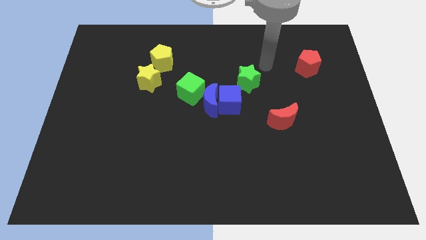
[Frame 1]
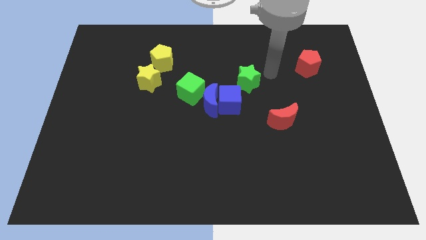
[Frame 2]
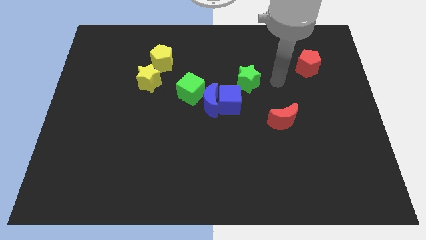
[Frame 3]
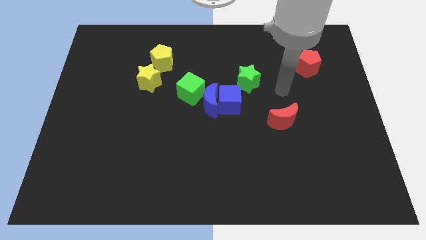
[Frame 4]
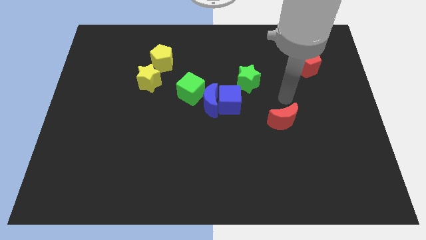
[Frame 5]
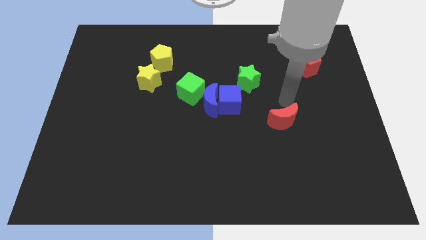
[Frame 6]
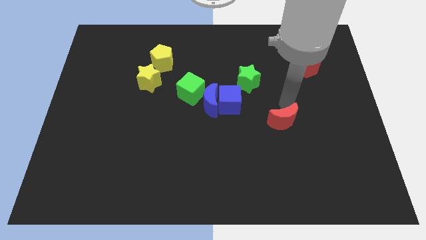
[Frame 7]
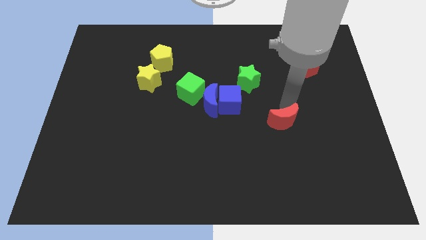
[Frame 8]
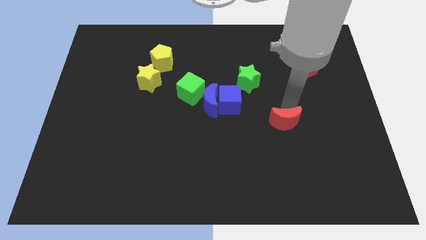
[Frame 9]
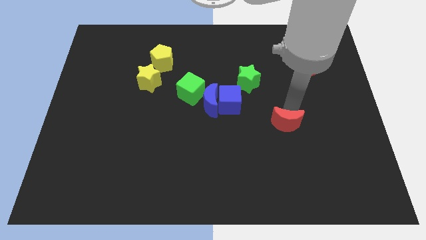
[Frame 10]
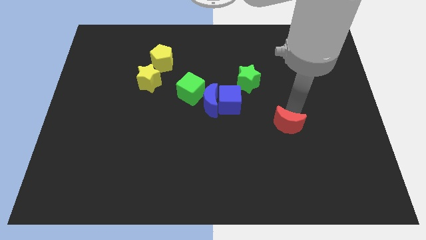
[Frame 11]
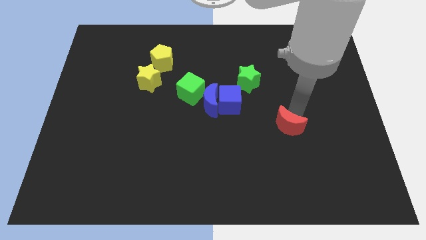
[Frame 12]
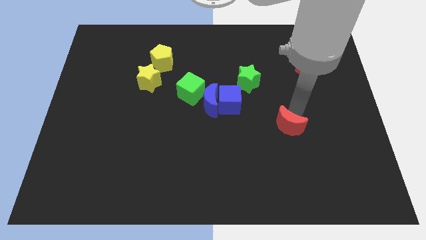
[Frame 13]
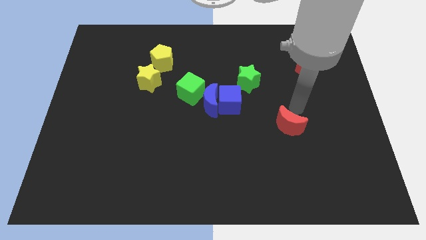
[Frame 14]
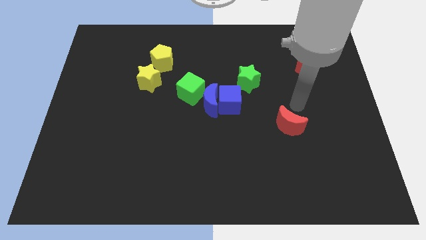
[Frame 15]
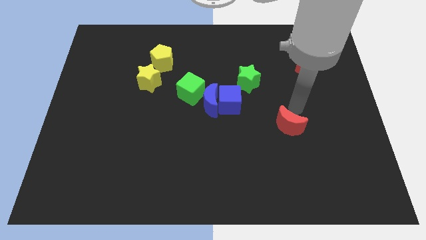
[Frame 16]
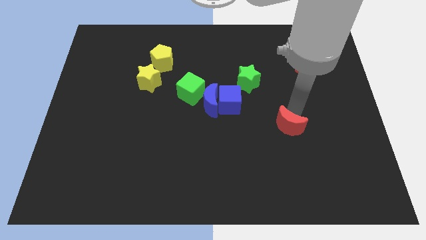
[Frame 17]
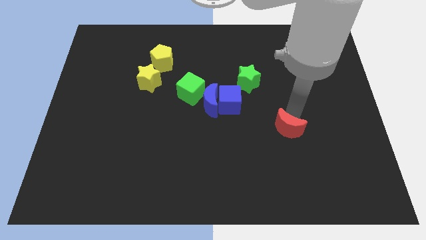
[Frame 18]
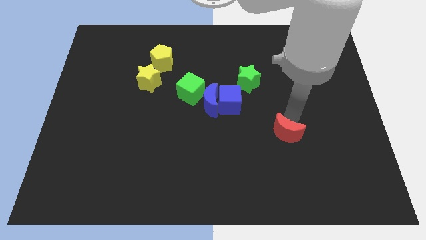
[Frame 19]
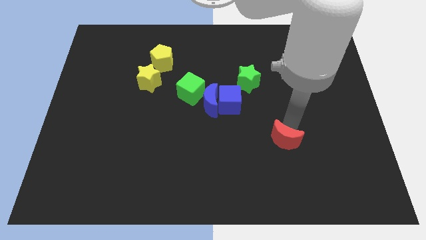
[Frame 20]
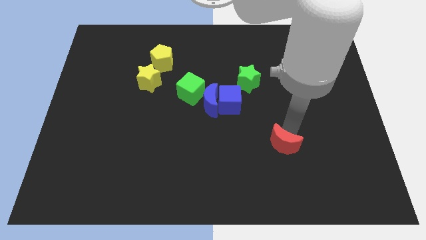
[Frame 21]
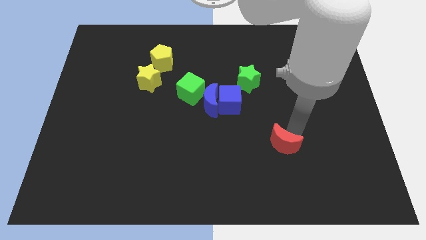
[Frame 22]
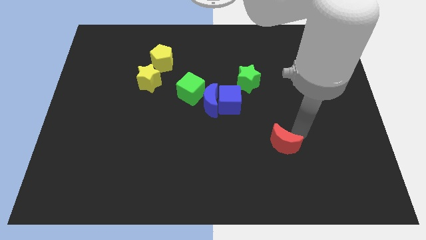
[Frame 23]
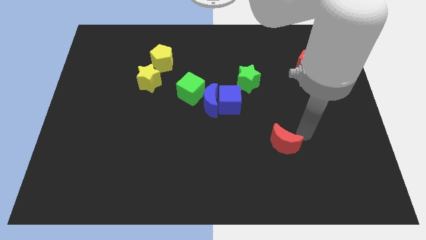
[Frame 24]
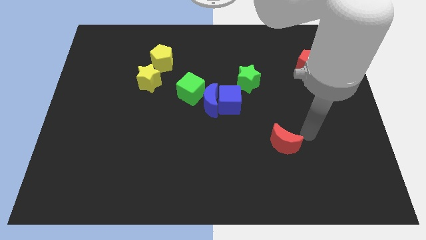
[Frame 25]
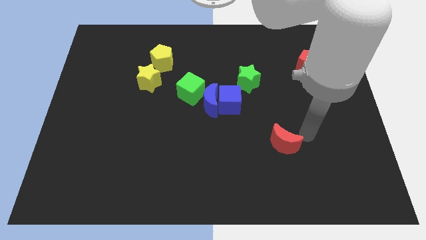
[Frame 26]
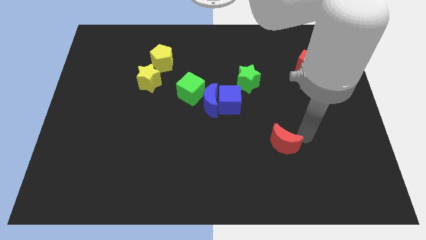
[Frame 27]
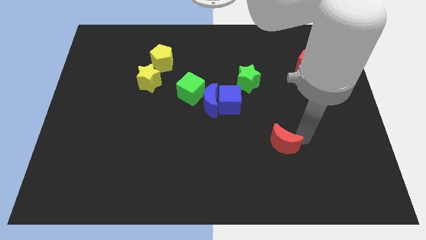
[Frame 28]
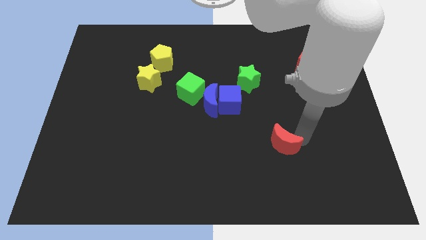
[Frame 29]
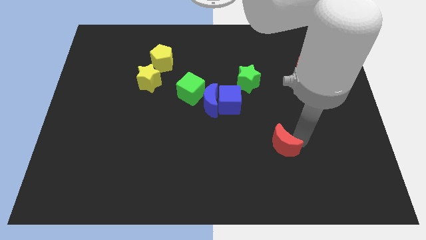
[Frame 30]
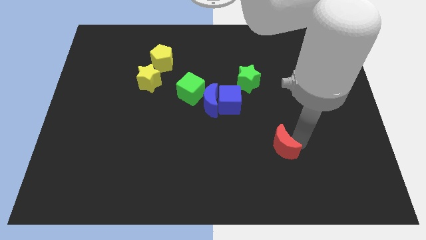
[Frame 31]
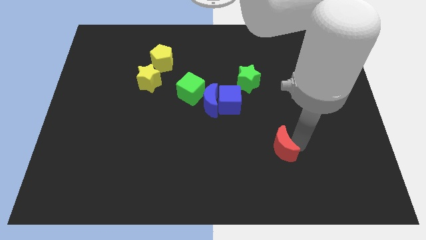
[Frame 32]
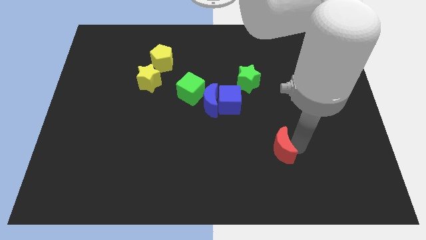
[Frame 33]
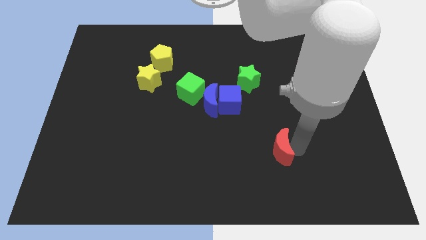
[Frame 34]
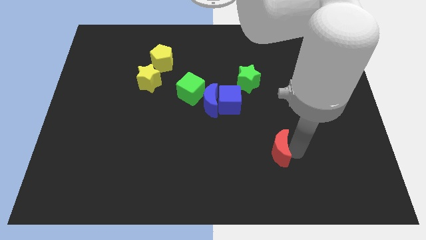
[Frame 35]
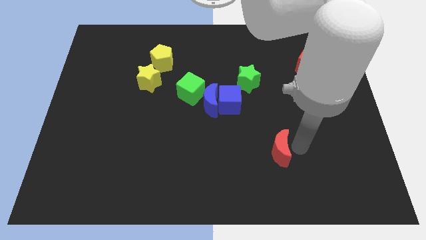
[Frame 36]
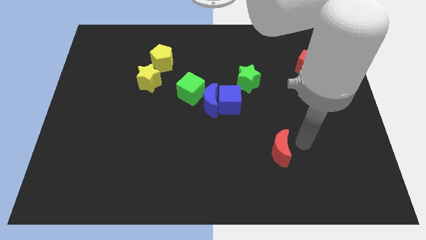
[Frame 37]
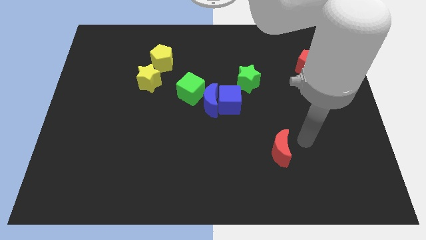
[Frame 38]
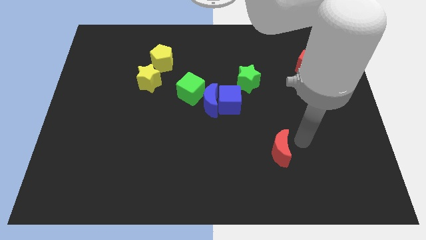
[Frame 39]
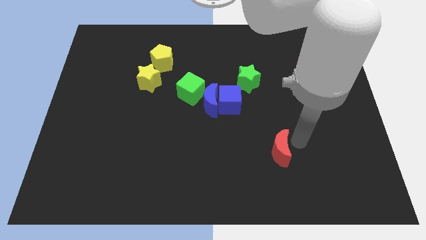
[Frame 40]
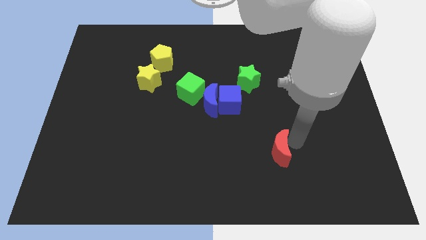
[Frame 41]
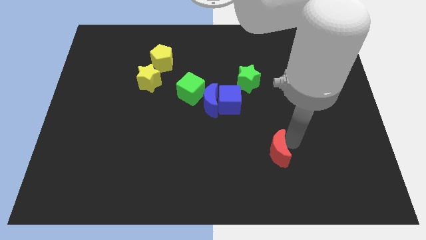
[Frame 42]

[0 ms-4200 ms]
push the red moon down and to the left slightly

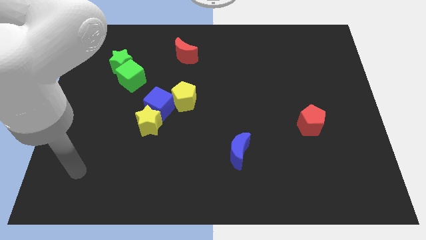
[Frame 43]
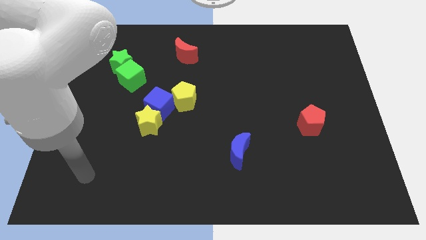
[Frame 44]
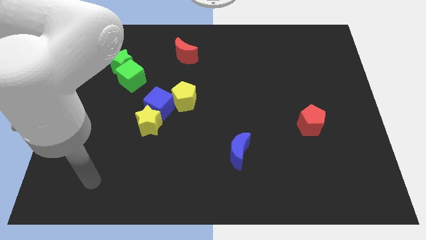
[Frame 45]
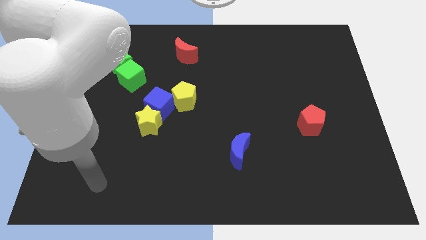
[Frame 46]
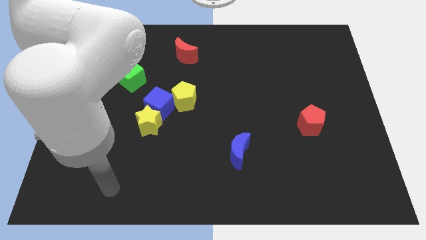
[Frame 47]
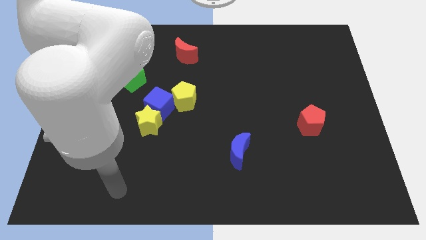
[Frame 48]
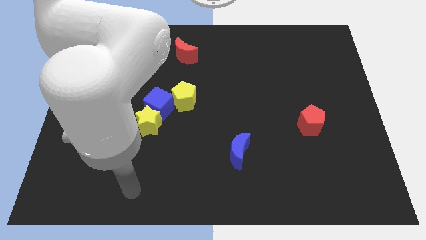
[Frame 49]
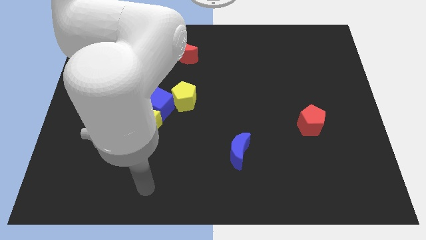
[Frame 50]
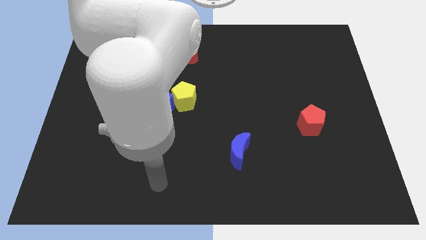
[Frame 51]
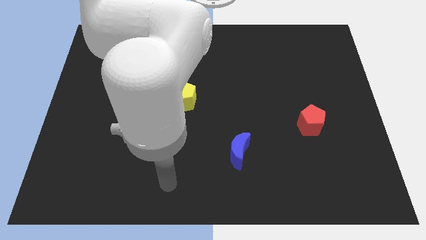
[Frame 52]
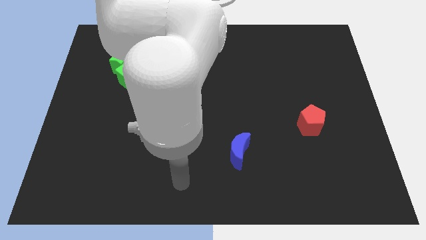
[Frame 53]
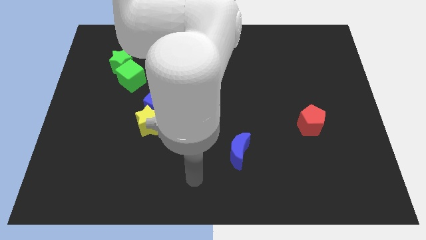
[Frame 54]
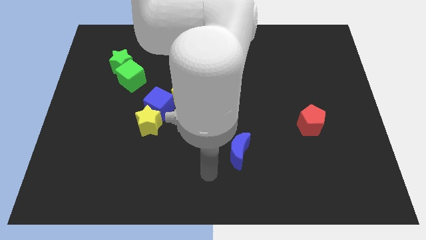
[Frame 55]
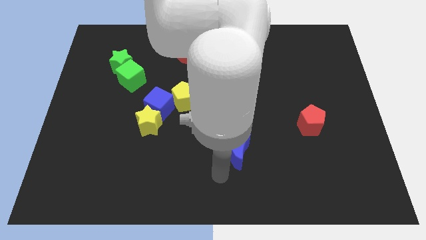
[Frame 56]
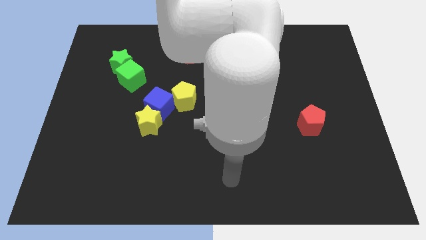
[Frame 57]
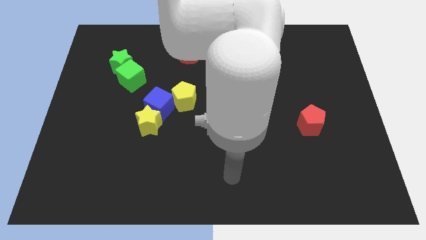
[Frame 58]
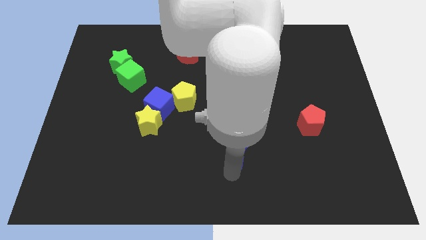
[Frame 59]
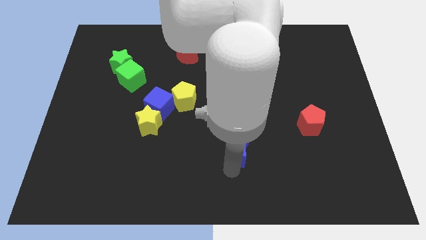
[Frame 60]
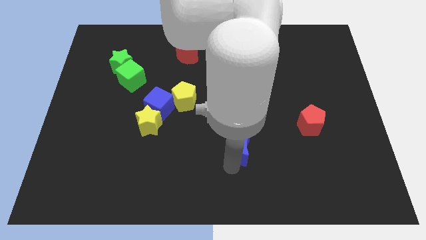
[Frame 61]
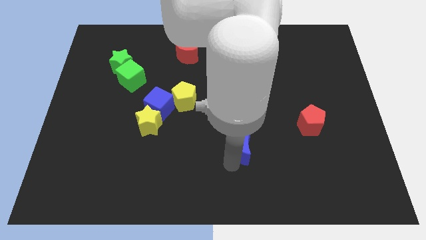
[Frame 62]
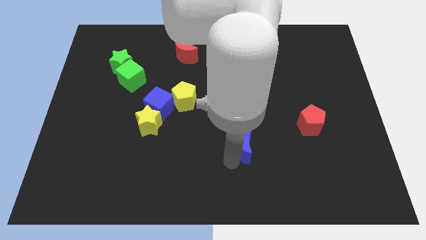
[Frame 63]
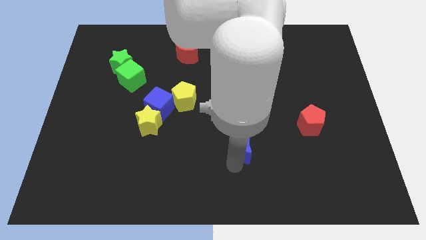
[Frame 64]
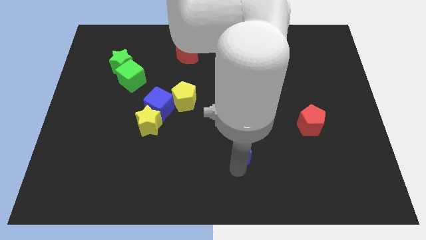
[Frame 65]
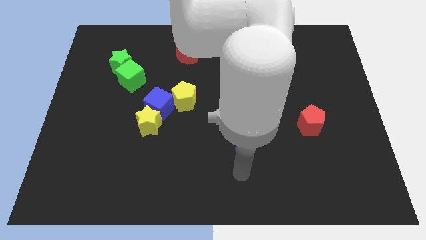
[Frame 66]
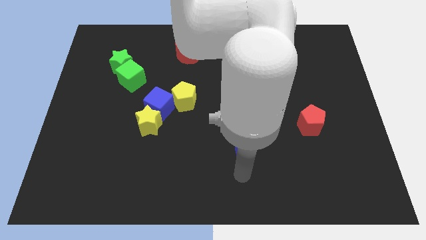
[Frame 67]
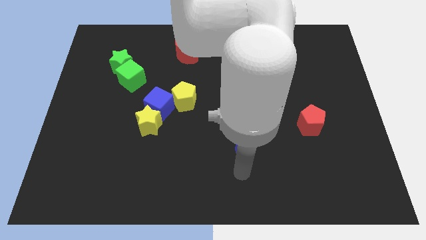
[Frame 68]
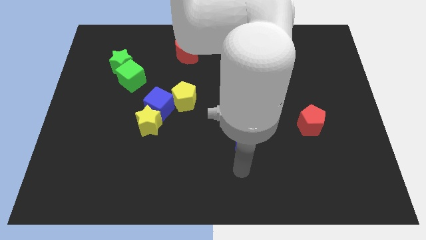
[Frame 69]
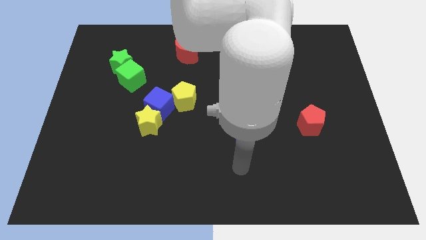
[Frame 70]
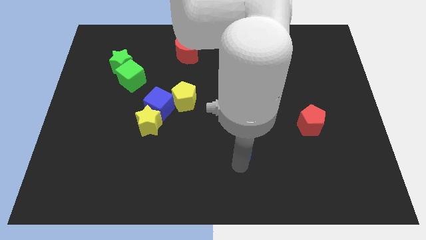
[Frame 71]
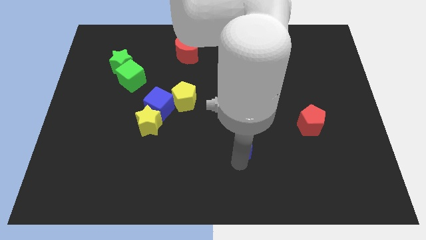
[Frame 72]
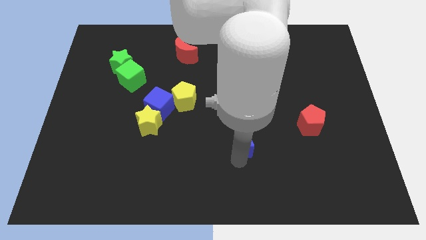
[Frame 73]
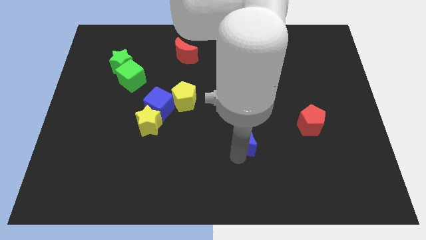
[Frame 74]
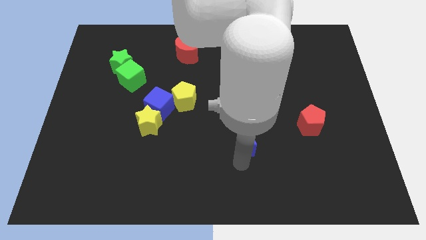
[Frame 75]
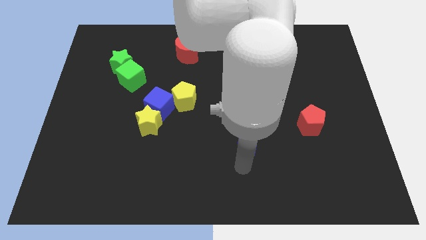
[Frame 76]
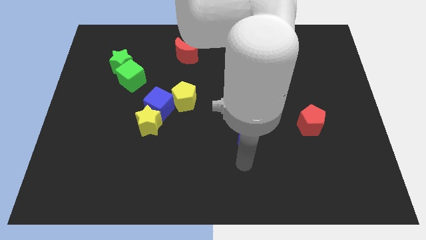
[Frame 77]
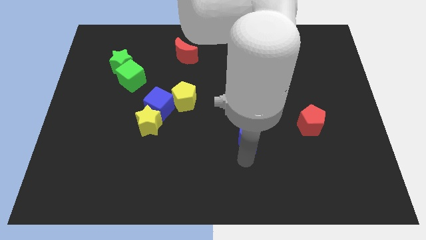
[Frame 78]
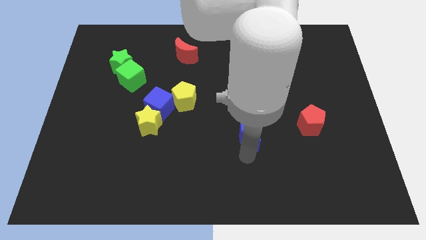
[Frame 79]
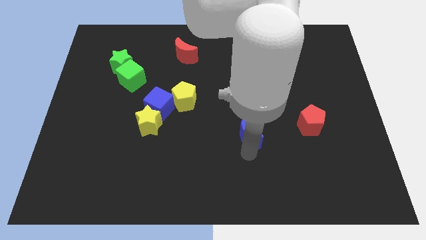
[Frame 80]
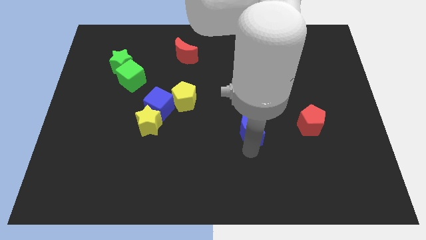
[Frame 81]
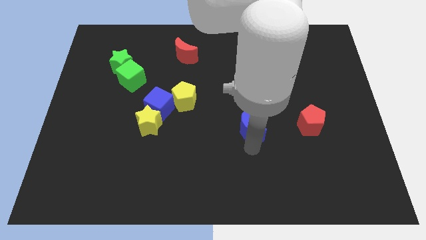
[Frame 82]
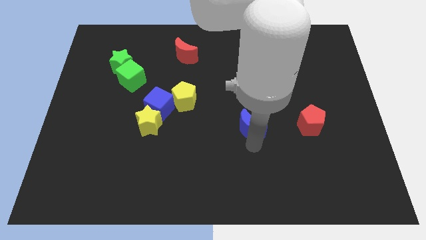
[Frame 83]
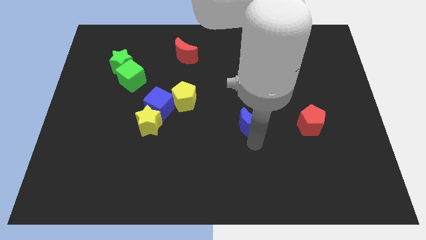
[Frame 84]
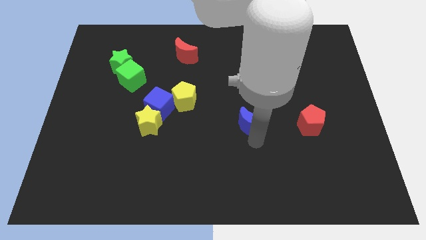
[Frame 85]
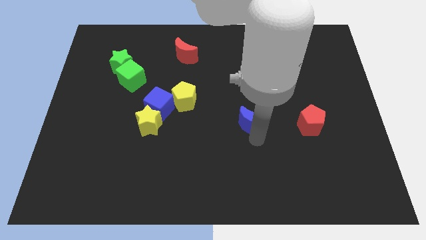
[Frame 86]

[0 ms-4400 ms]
slightly move the blue moon upwards
